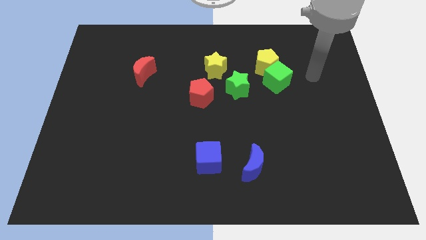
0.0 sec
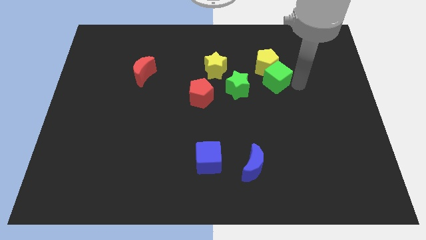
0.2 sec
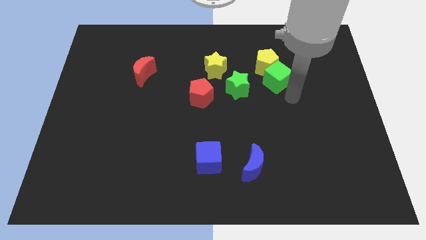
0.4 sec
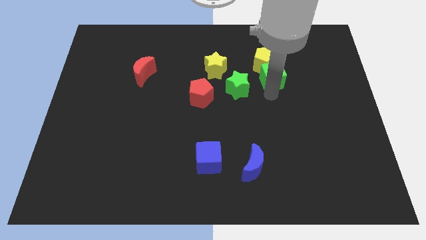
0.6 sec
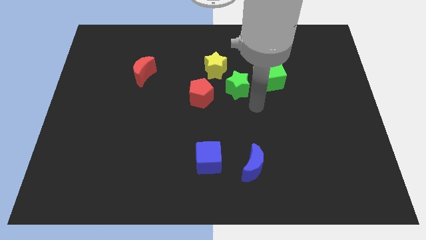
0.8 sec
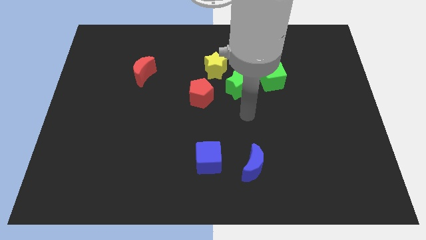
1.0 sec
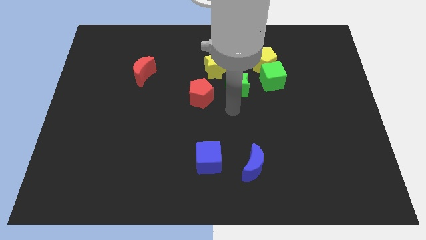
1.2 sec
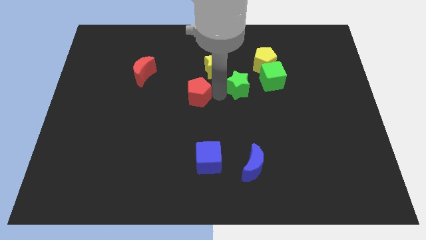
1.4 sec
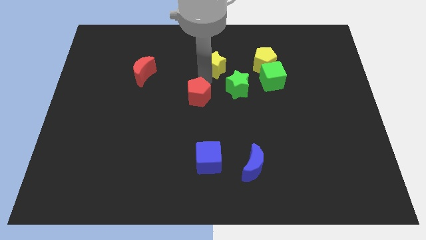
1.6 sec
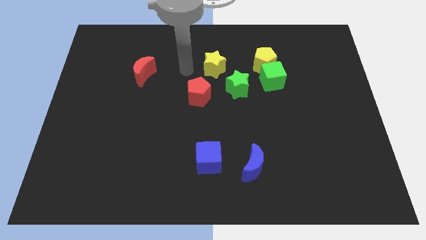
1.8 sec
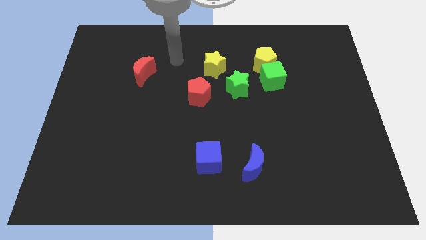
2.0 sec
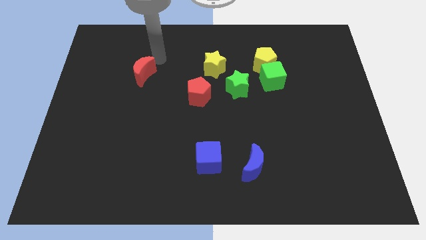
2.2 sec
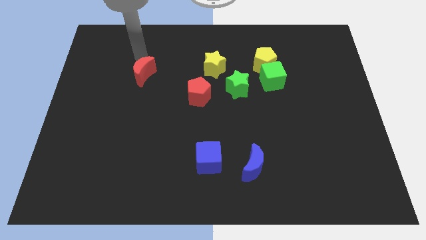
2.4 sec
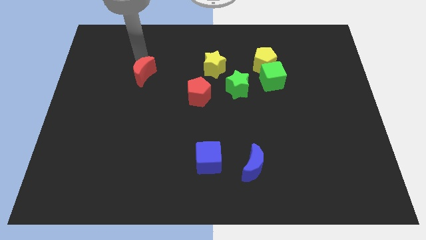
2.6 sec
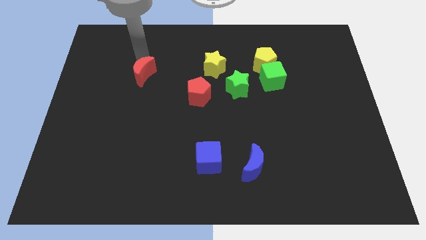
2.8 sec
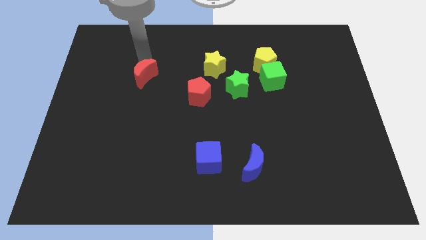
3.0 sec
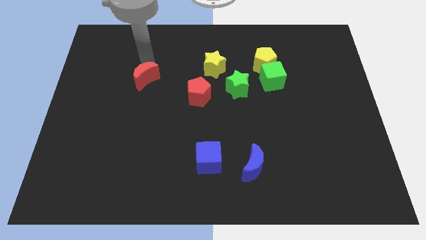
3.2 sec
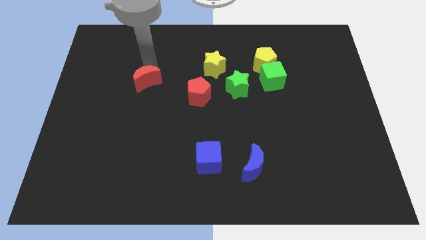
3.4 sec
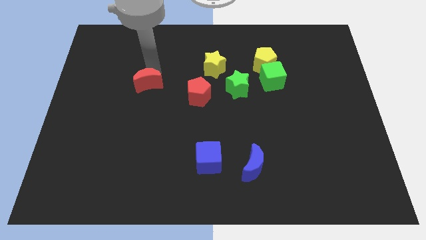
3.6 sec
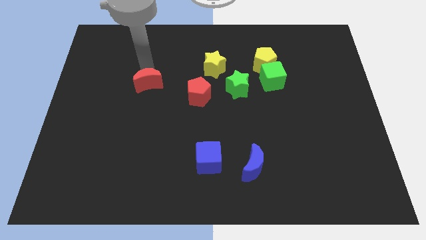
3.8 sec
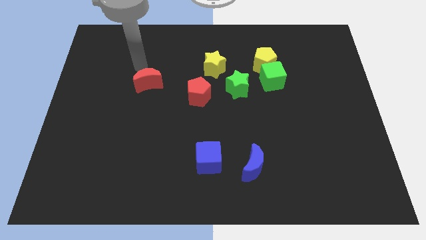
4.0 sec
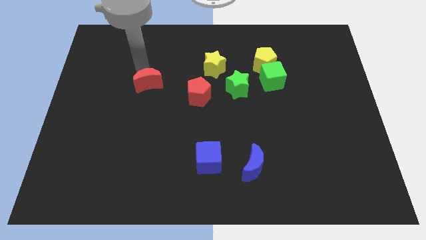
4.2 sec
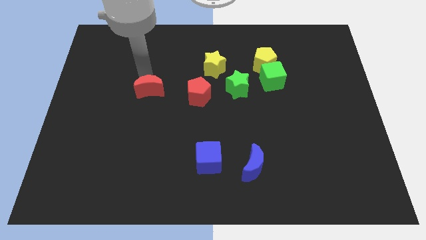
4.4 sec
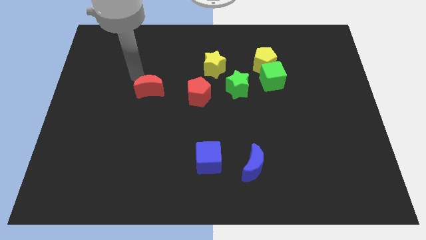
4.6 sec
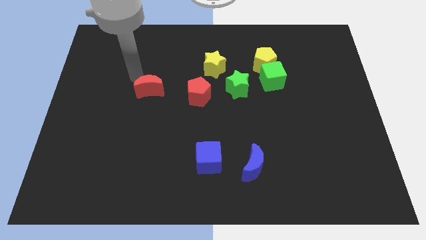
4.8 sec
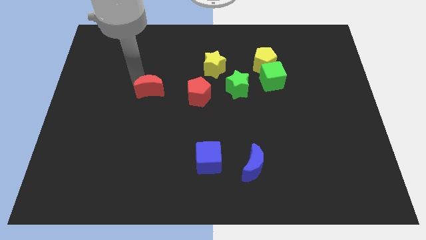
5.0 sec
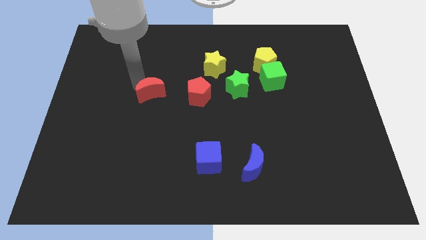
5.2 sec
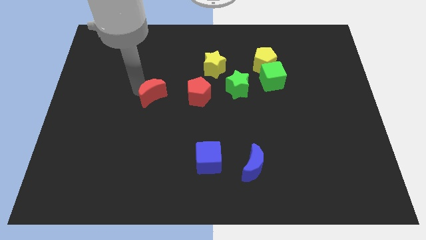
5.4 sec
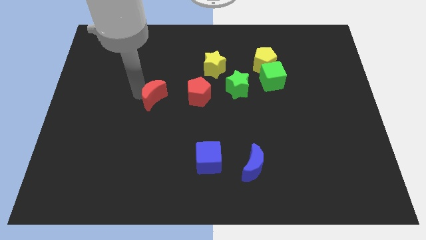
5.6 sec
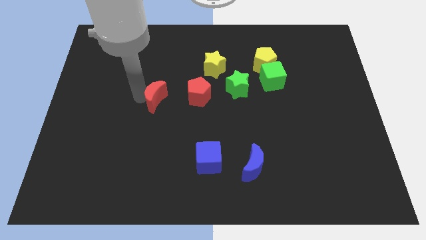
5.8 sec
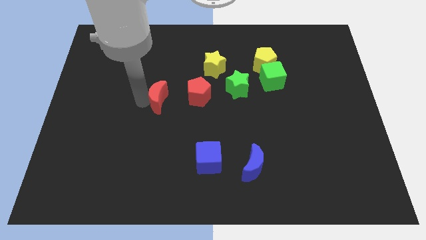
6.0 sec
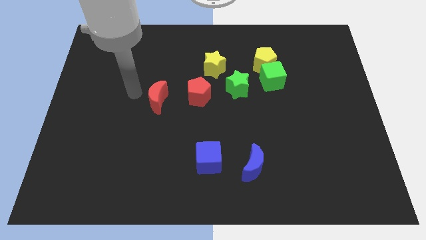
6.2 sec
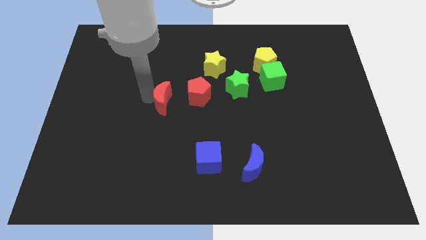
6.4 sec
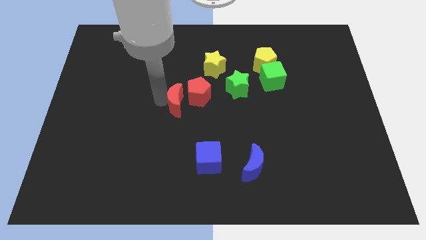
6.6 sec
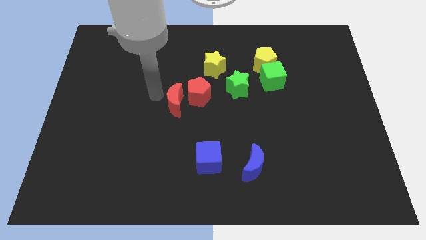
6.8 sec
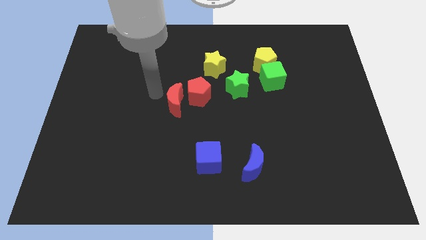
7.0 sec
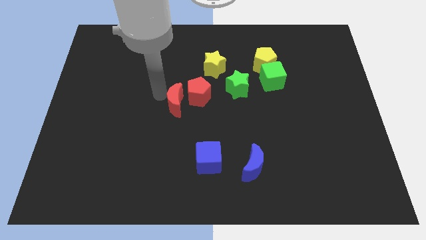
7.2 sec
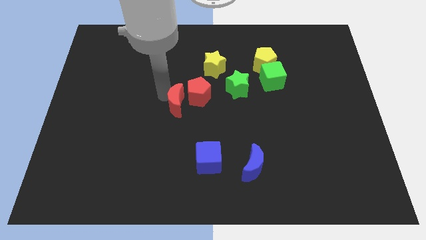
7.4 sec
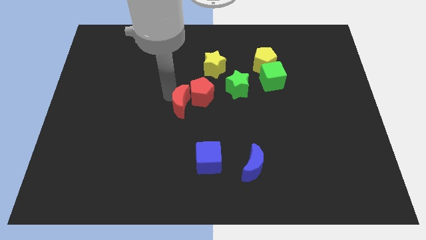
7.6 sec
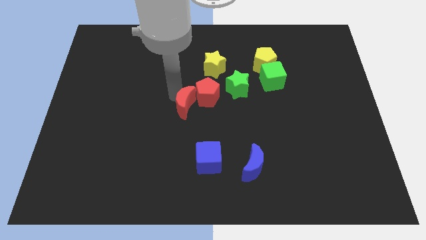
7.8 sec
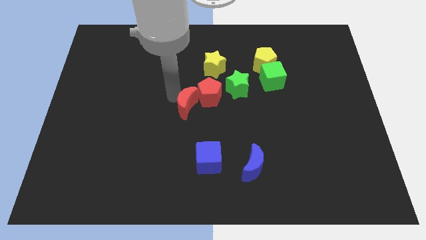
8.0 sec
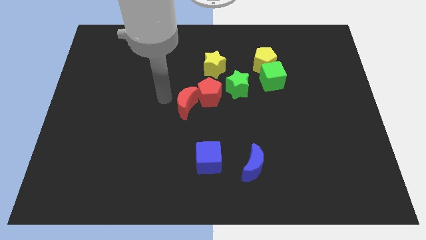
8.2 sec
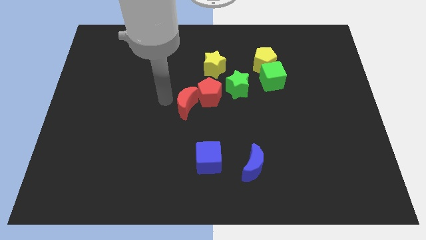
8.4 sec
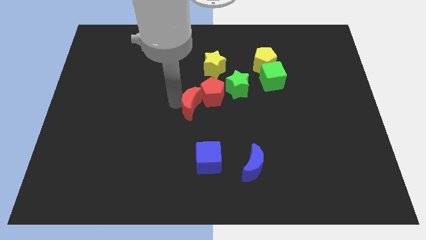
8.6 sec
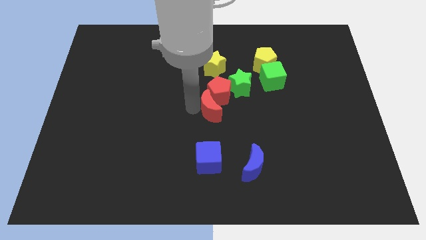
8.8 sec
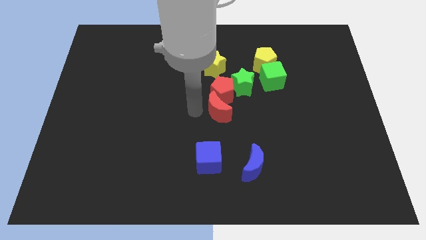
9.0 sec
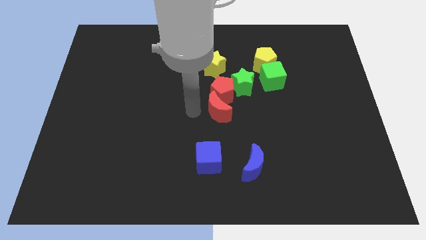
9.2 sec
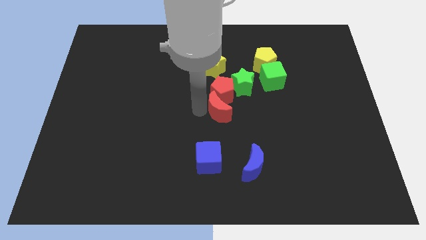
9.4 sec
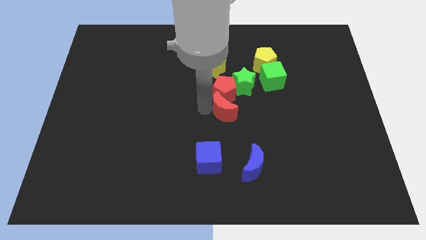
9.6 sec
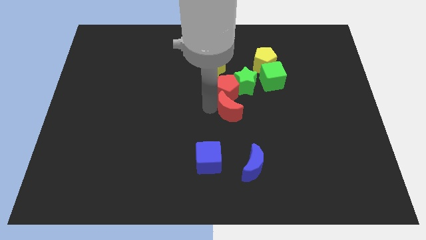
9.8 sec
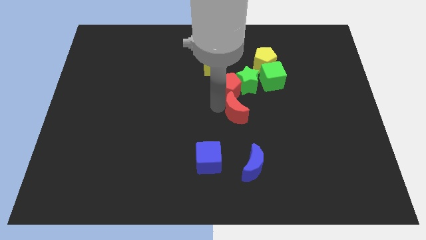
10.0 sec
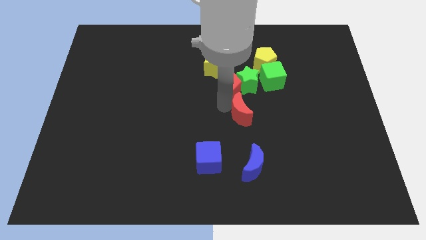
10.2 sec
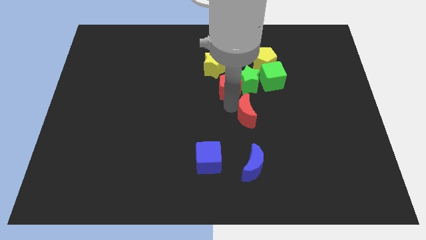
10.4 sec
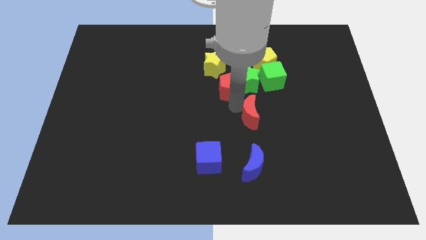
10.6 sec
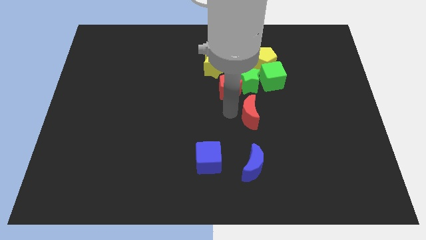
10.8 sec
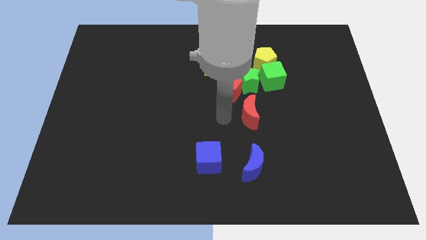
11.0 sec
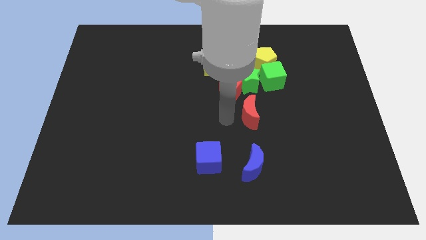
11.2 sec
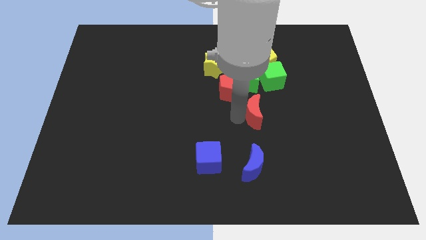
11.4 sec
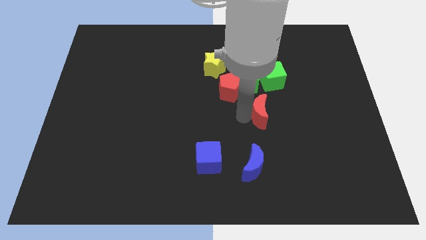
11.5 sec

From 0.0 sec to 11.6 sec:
move the red moon to the bottom side of the green cube

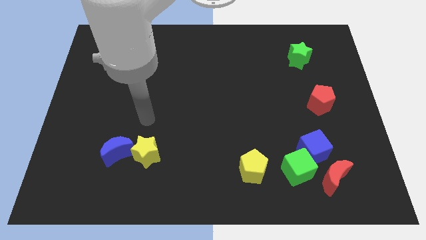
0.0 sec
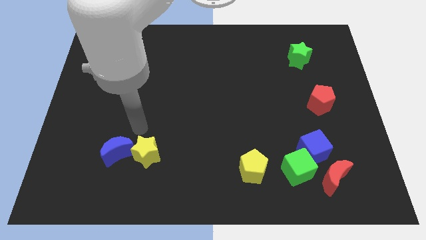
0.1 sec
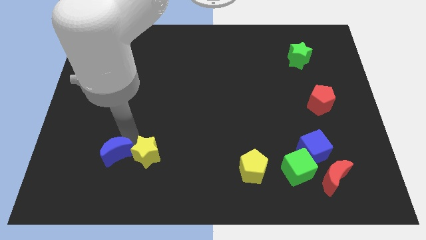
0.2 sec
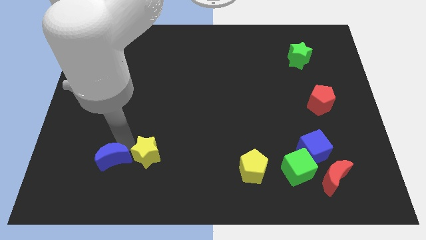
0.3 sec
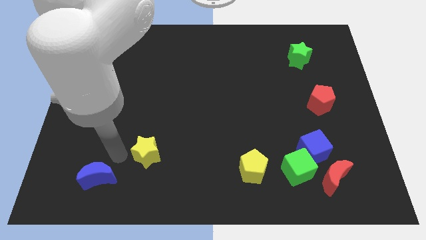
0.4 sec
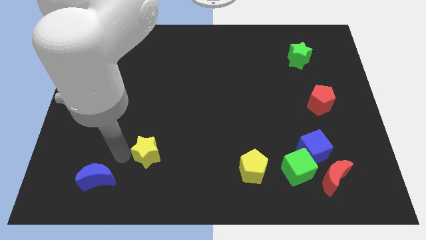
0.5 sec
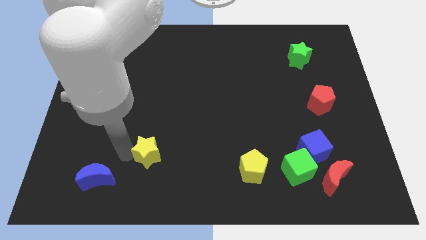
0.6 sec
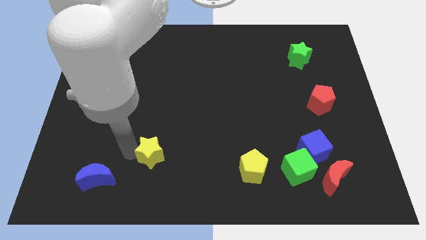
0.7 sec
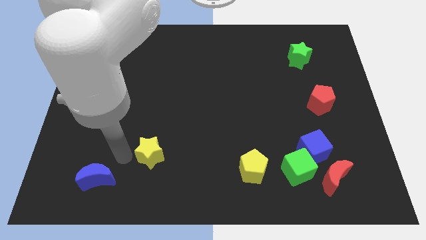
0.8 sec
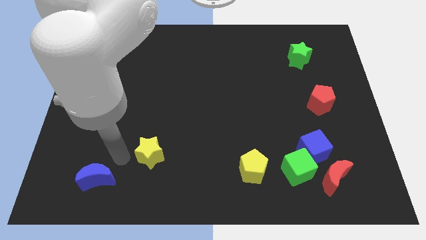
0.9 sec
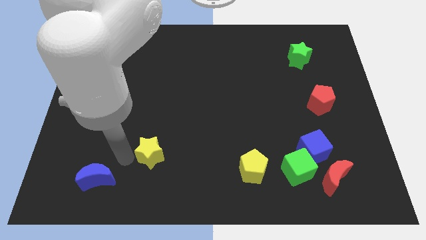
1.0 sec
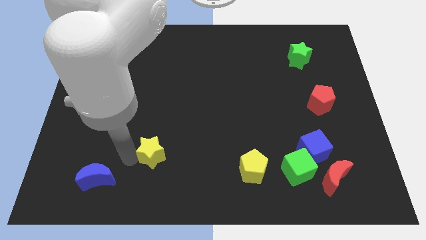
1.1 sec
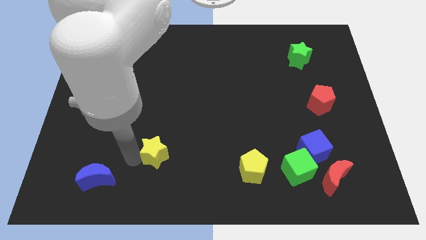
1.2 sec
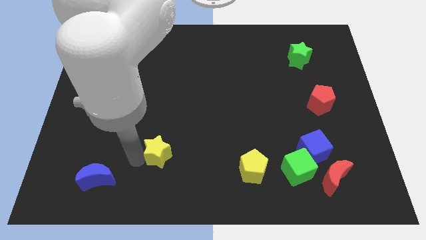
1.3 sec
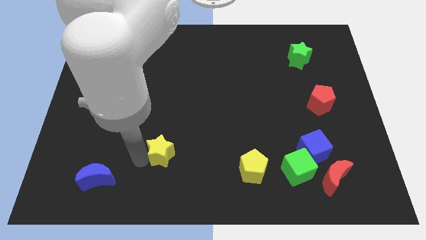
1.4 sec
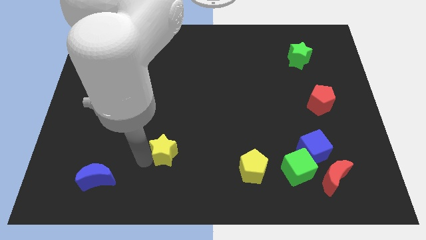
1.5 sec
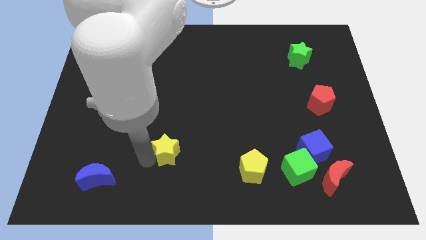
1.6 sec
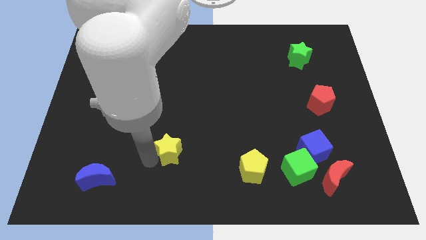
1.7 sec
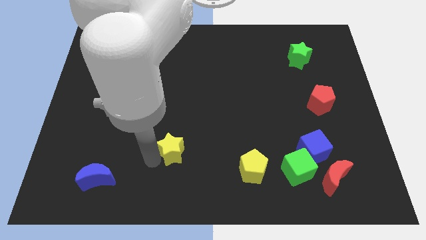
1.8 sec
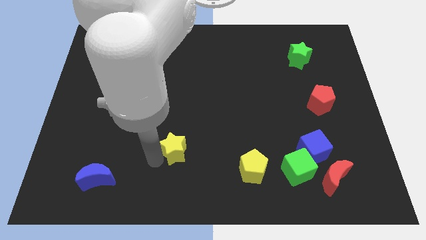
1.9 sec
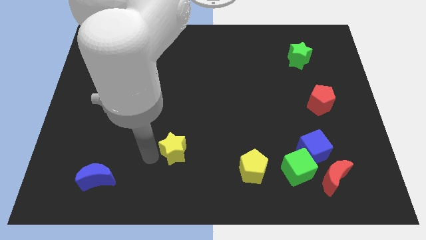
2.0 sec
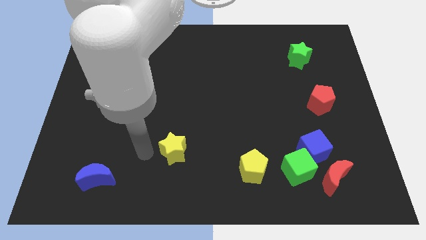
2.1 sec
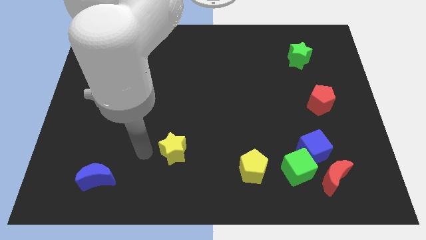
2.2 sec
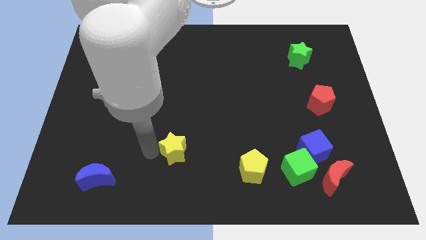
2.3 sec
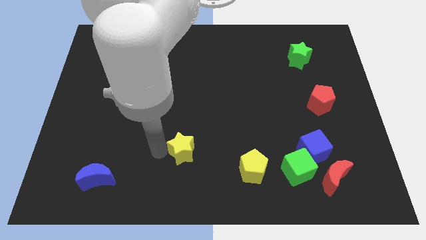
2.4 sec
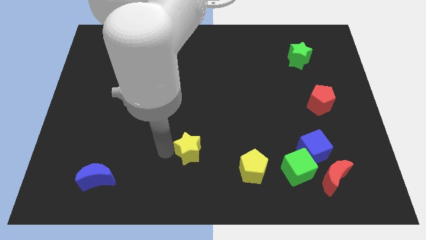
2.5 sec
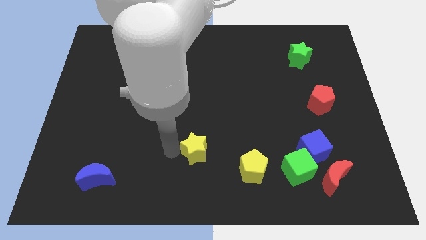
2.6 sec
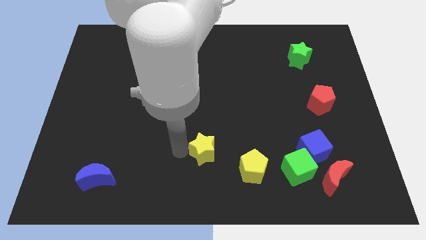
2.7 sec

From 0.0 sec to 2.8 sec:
slide the yellow star diagonally up and to the left of the yellow pentagon
